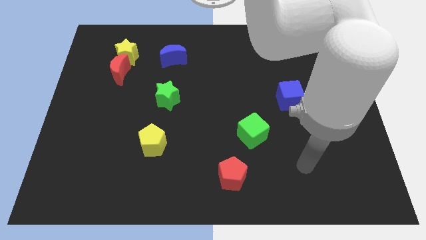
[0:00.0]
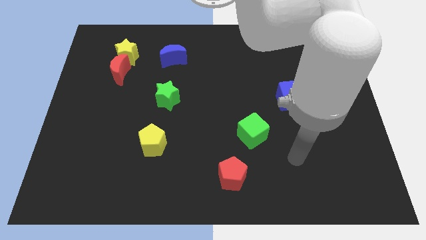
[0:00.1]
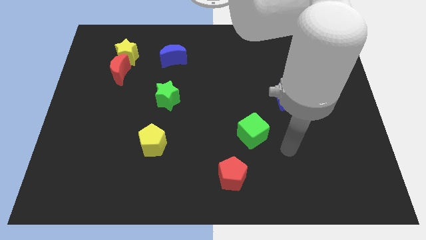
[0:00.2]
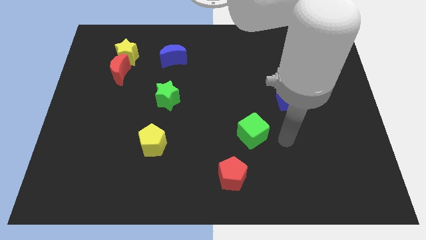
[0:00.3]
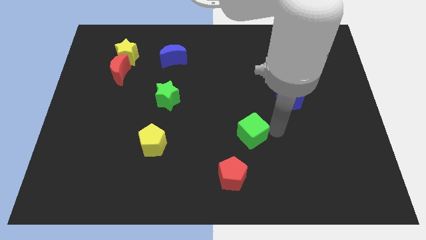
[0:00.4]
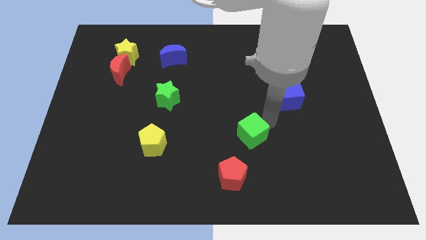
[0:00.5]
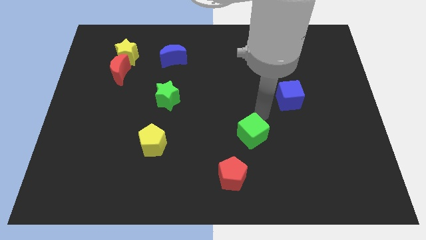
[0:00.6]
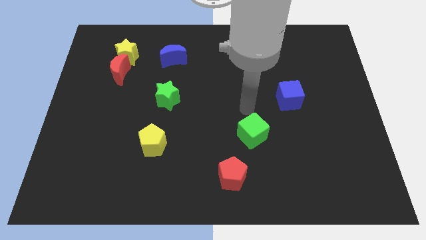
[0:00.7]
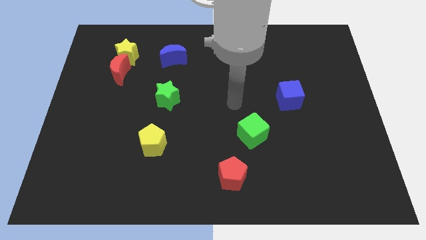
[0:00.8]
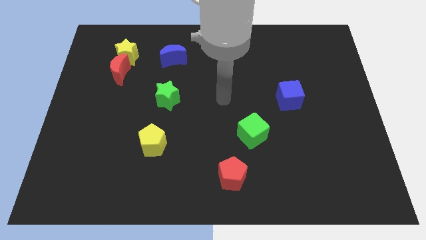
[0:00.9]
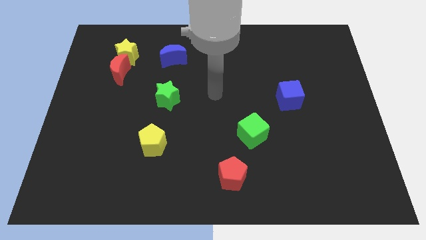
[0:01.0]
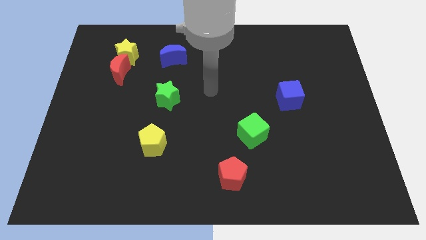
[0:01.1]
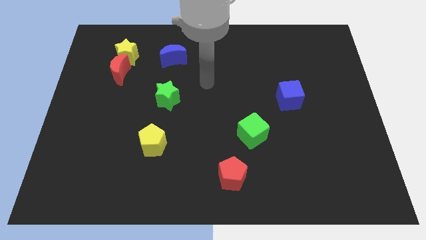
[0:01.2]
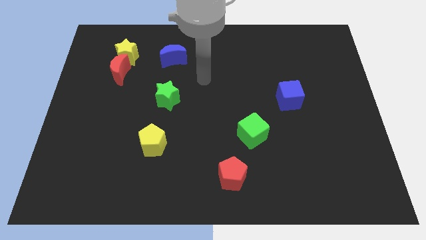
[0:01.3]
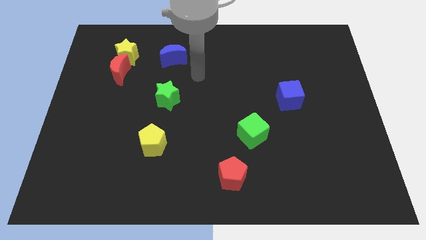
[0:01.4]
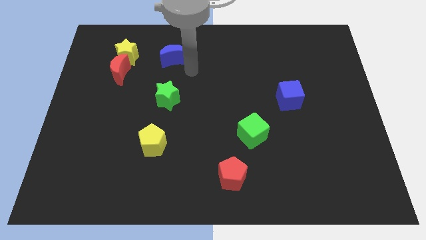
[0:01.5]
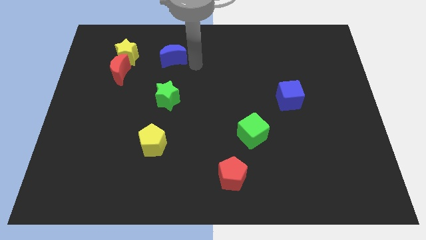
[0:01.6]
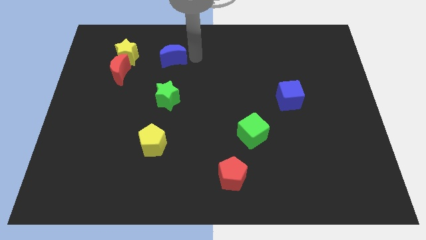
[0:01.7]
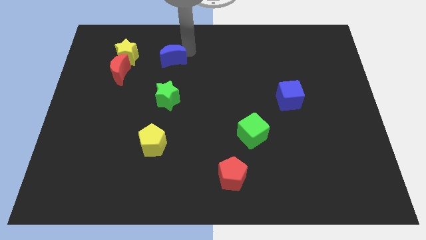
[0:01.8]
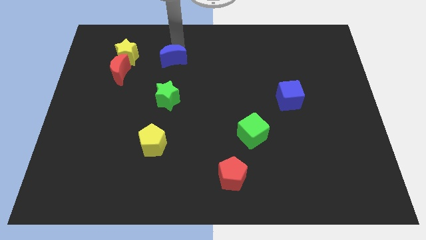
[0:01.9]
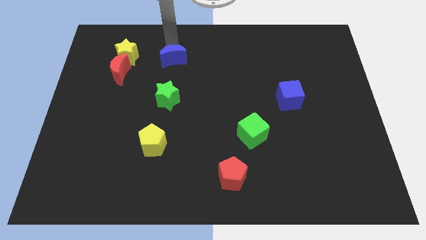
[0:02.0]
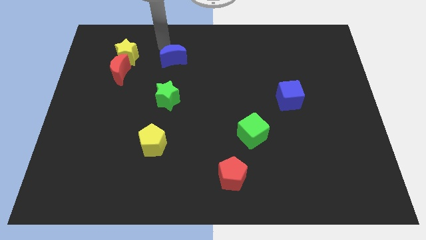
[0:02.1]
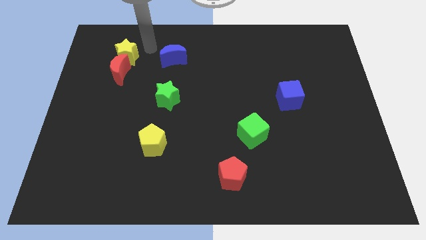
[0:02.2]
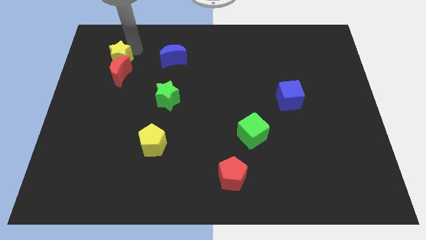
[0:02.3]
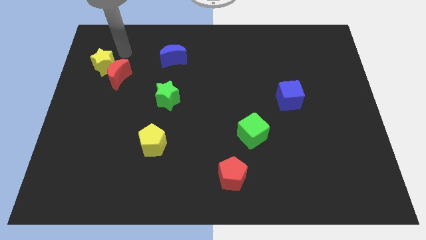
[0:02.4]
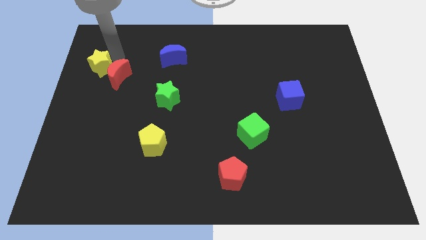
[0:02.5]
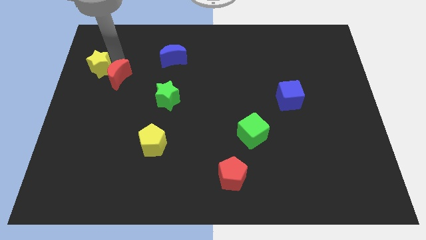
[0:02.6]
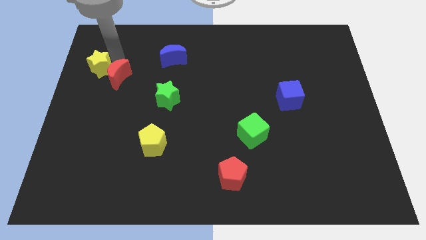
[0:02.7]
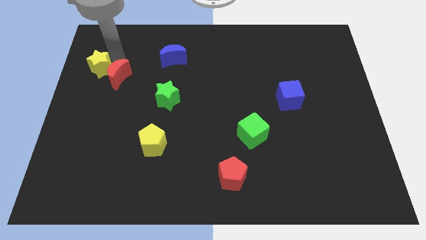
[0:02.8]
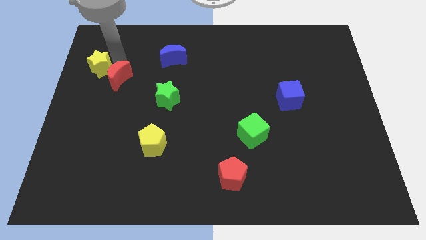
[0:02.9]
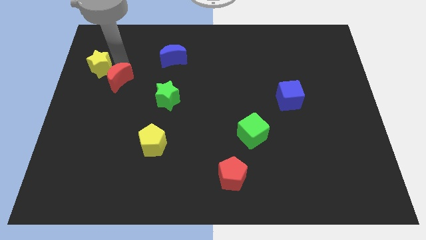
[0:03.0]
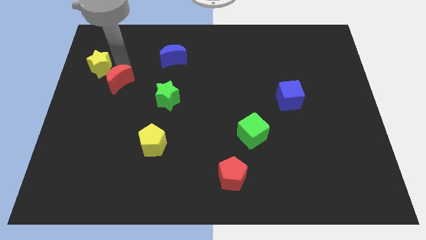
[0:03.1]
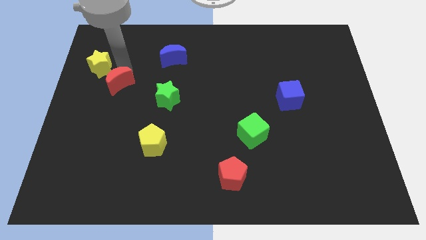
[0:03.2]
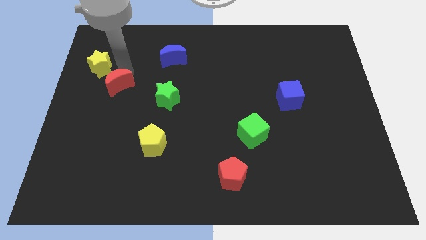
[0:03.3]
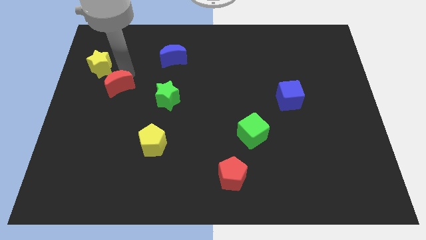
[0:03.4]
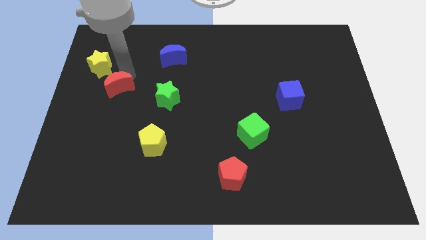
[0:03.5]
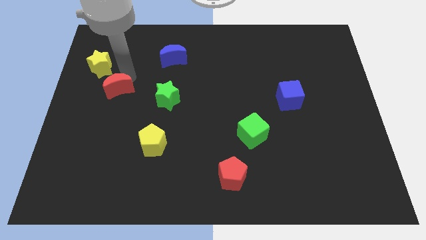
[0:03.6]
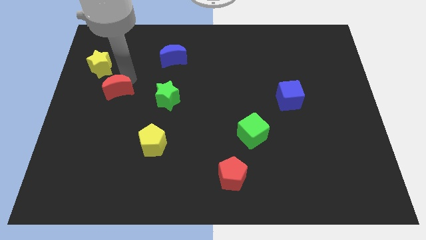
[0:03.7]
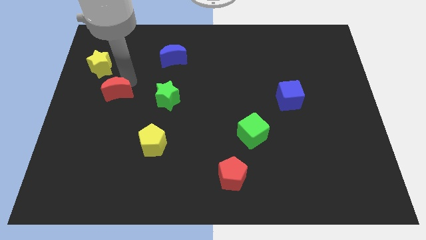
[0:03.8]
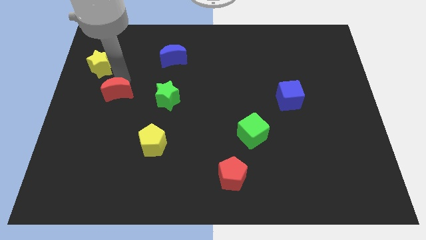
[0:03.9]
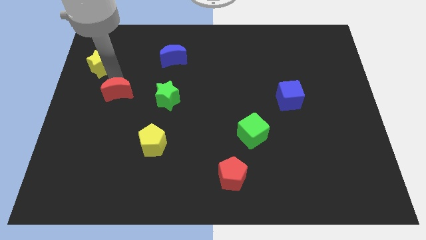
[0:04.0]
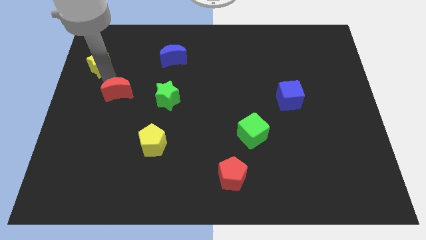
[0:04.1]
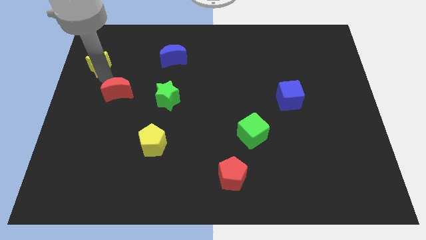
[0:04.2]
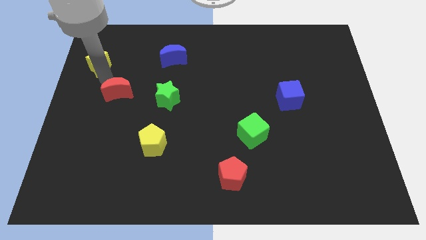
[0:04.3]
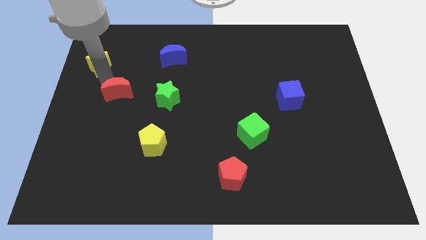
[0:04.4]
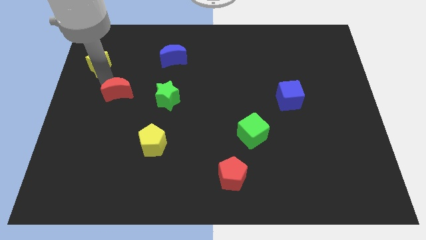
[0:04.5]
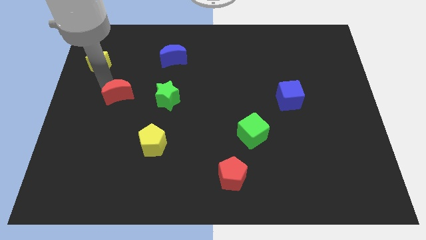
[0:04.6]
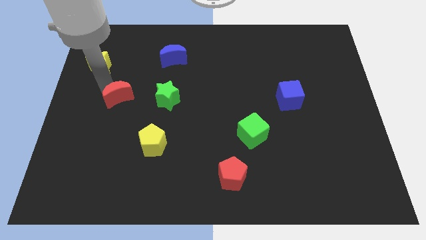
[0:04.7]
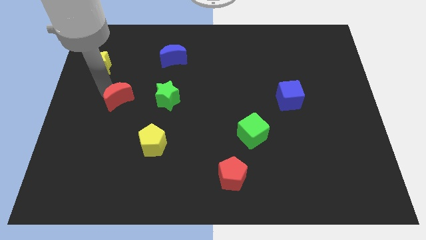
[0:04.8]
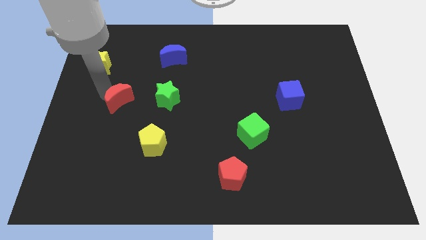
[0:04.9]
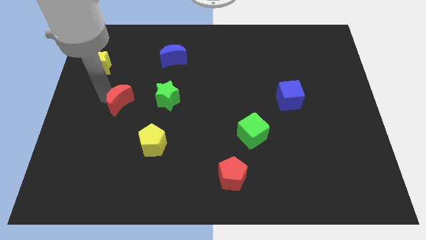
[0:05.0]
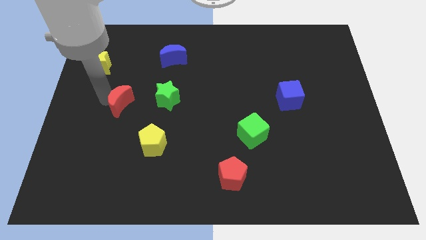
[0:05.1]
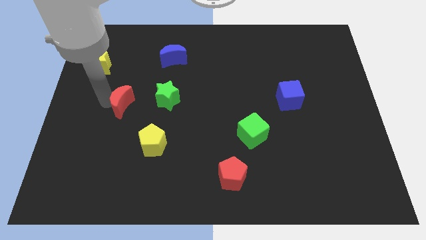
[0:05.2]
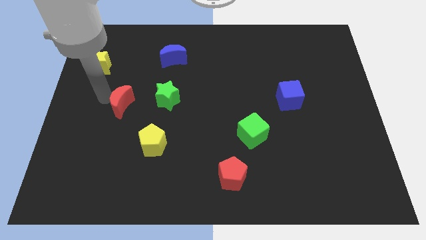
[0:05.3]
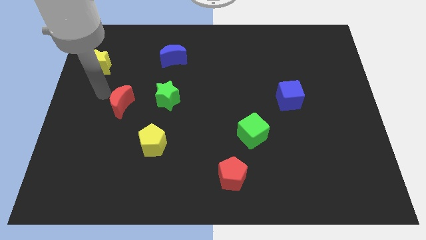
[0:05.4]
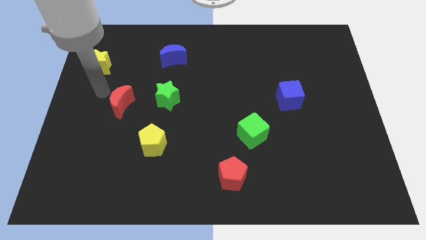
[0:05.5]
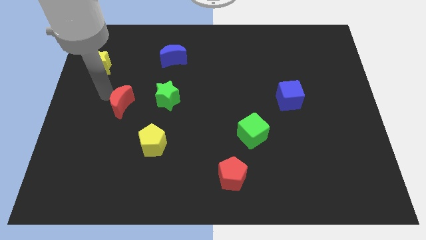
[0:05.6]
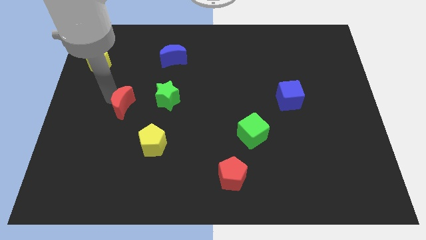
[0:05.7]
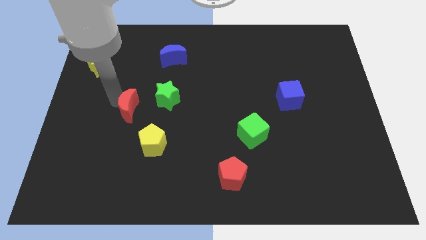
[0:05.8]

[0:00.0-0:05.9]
move the red moon to the bottom left of the green star

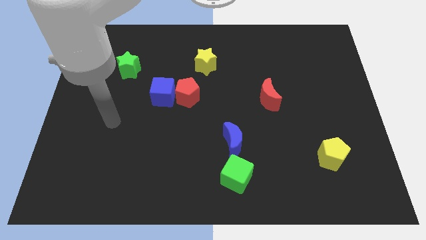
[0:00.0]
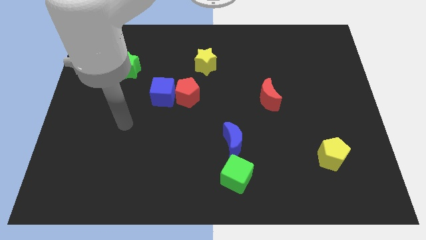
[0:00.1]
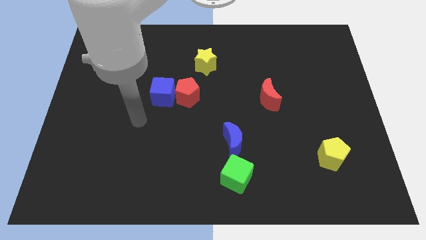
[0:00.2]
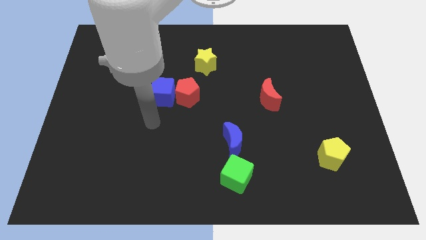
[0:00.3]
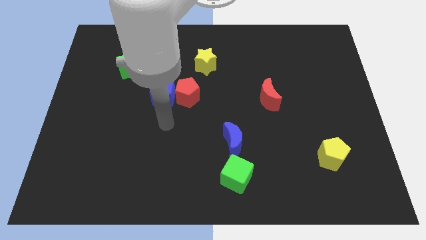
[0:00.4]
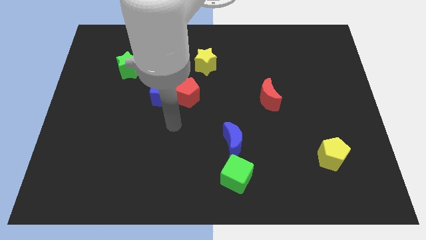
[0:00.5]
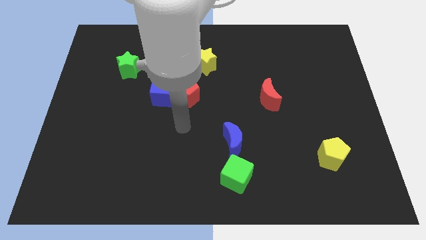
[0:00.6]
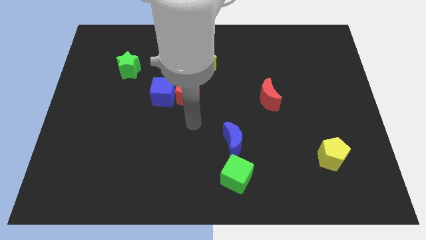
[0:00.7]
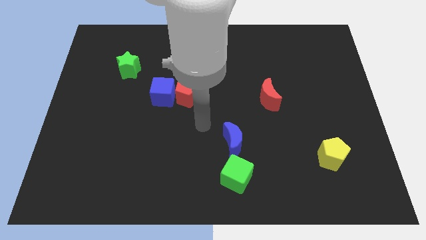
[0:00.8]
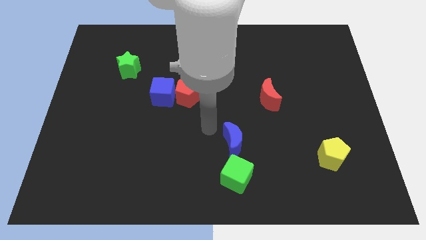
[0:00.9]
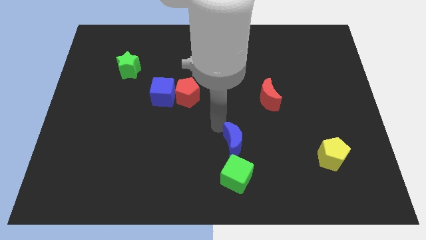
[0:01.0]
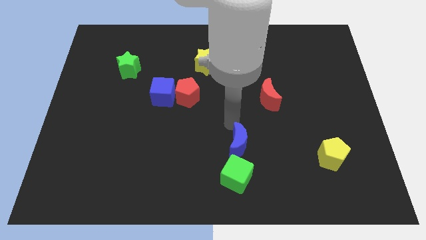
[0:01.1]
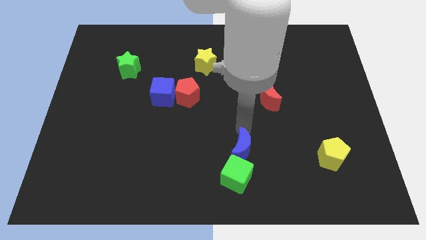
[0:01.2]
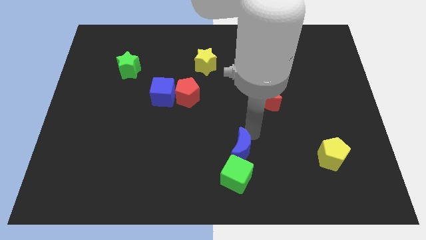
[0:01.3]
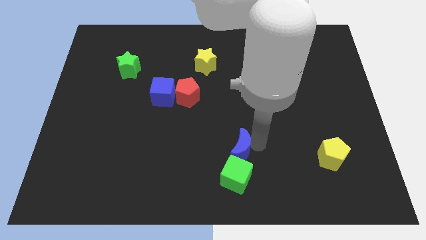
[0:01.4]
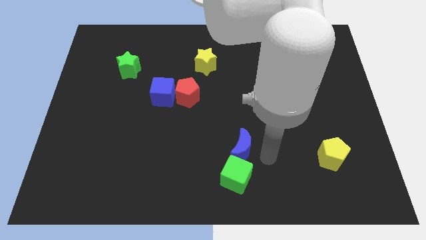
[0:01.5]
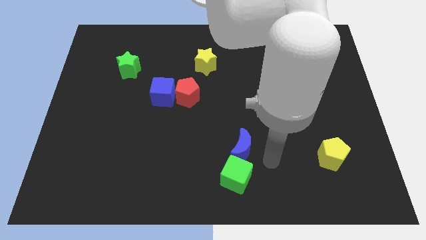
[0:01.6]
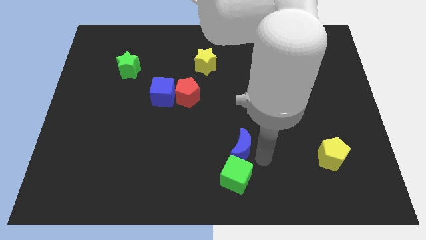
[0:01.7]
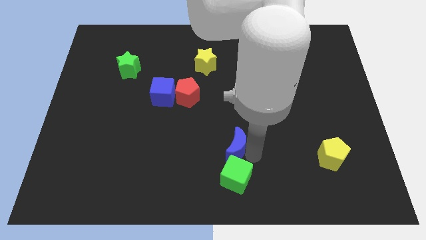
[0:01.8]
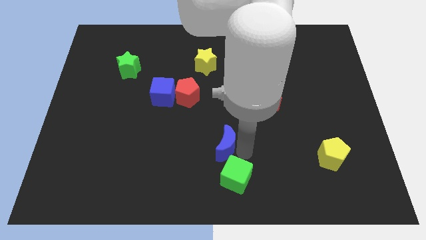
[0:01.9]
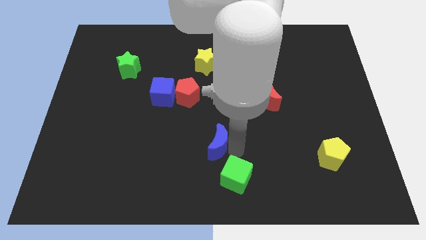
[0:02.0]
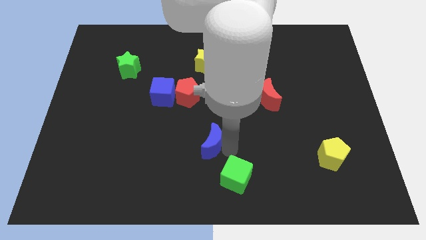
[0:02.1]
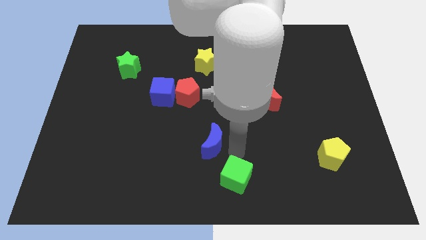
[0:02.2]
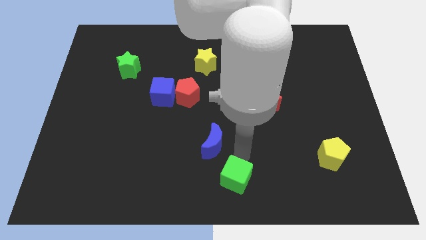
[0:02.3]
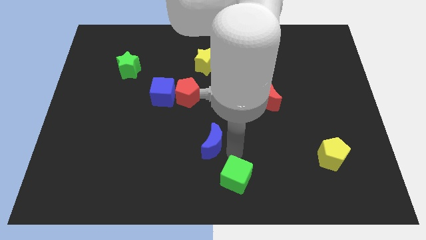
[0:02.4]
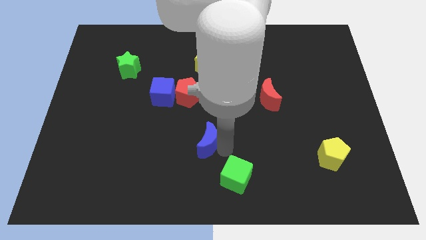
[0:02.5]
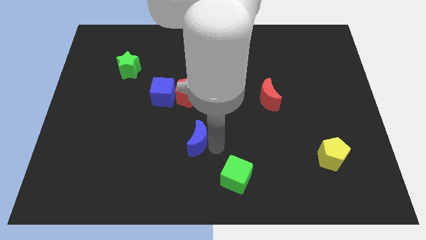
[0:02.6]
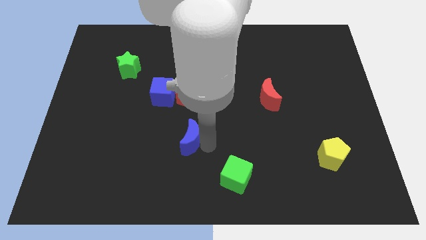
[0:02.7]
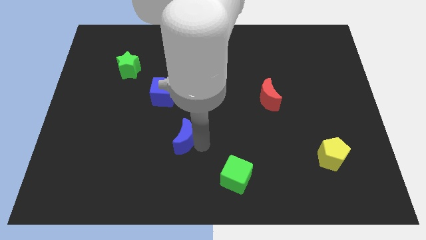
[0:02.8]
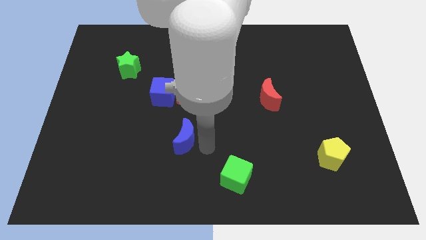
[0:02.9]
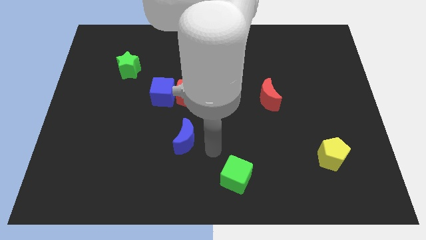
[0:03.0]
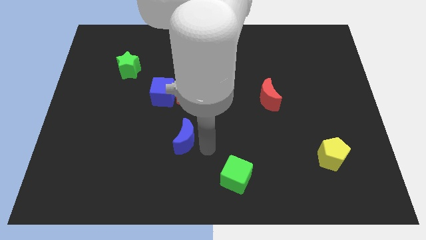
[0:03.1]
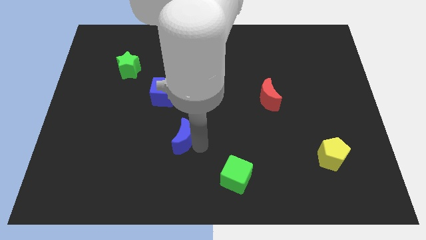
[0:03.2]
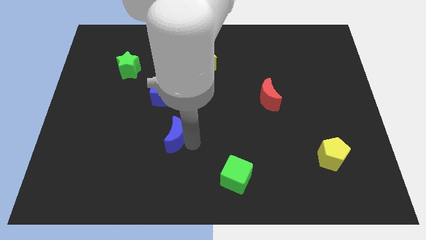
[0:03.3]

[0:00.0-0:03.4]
move the blue moon to the bottom side of the blue cube
